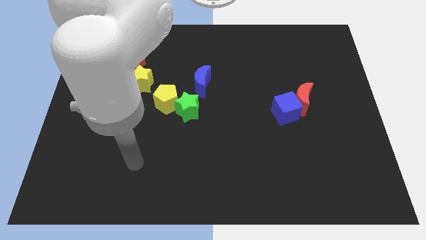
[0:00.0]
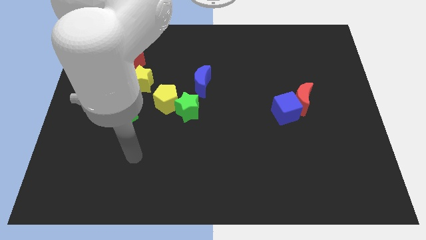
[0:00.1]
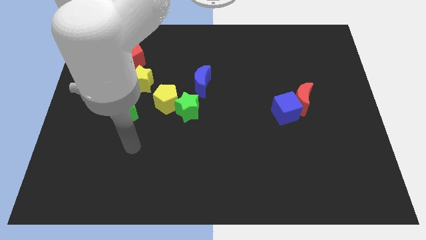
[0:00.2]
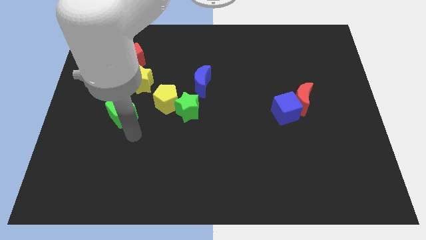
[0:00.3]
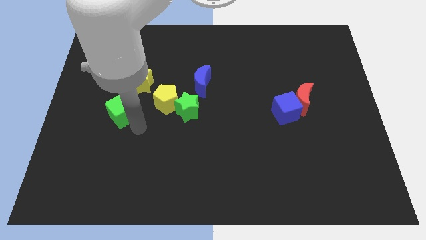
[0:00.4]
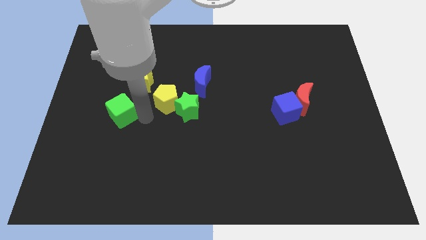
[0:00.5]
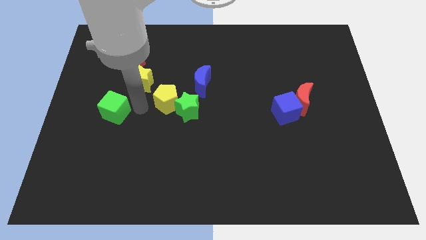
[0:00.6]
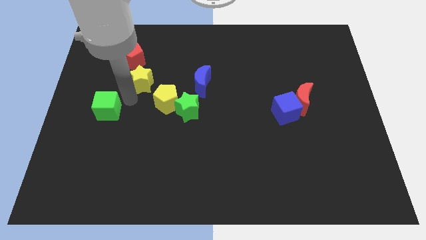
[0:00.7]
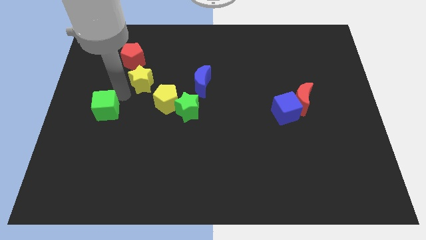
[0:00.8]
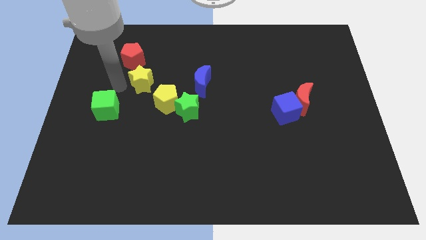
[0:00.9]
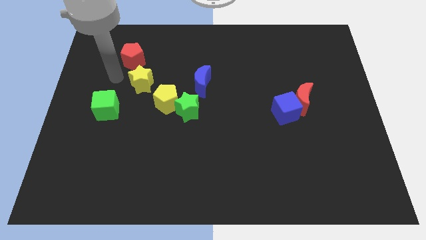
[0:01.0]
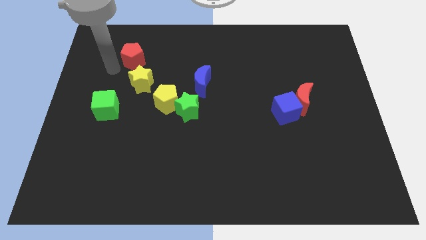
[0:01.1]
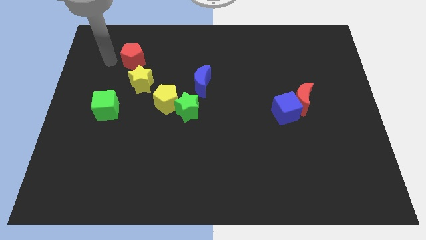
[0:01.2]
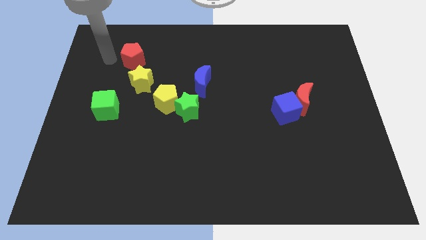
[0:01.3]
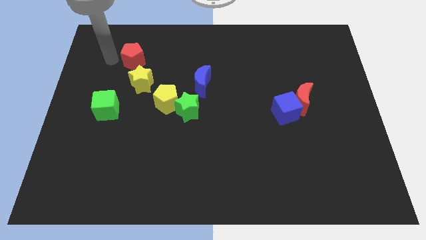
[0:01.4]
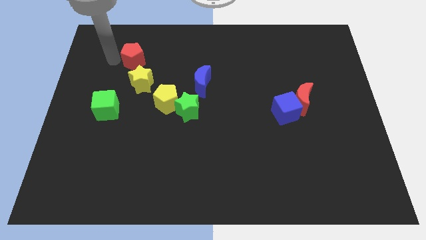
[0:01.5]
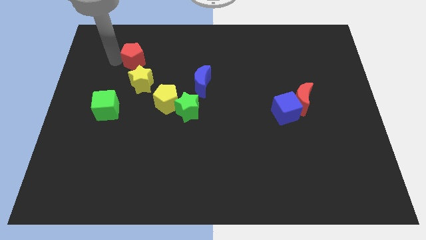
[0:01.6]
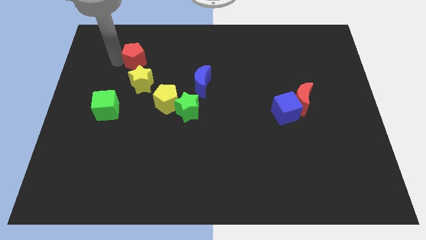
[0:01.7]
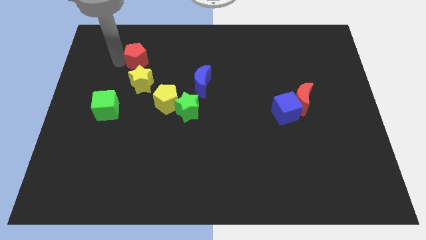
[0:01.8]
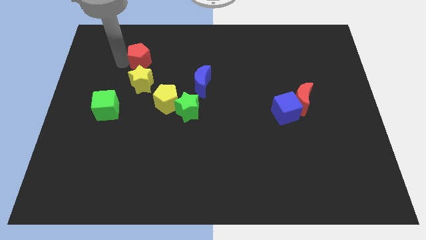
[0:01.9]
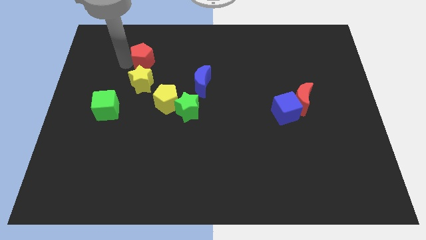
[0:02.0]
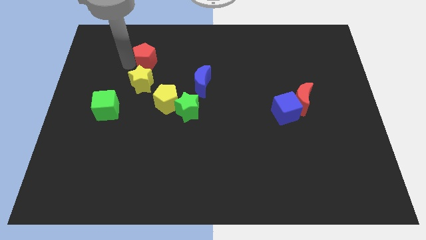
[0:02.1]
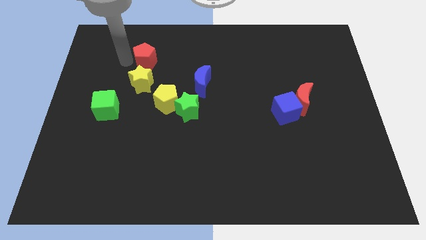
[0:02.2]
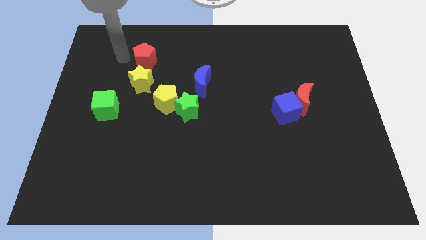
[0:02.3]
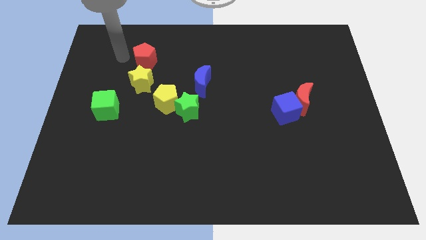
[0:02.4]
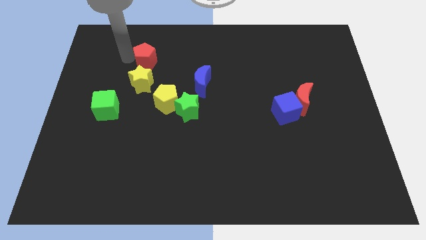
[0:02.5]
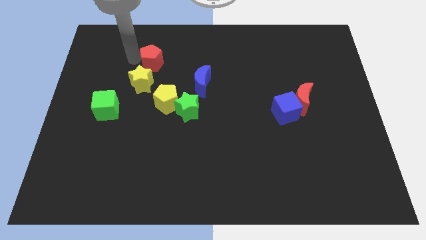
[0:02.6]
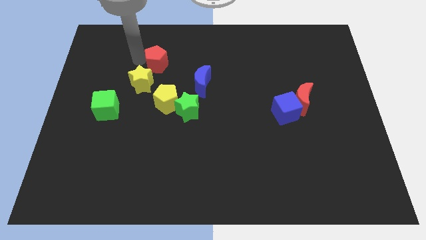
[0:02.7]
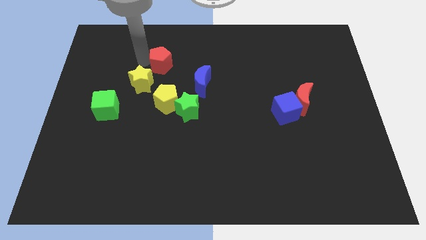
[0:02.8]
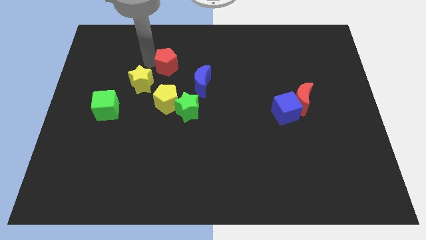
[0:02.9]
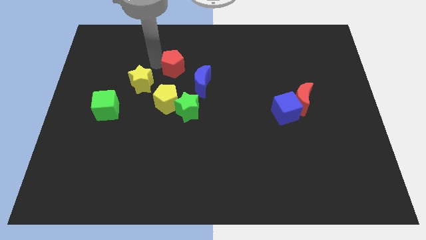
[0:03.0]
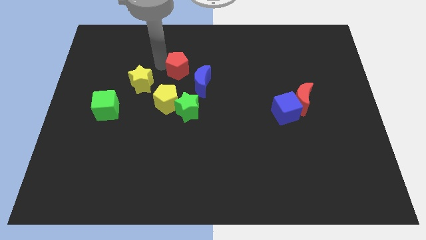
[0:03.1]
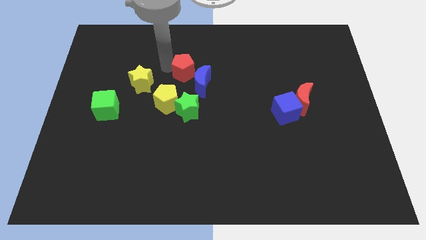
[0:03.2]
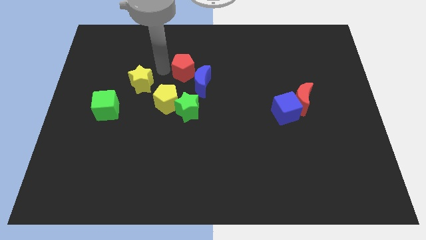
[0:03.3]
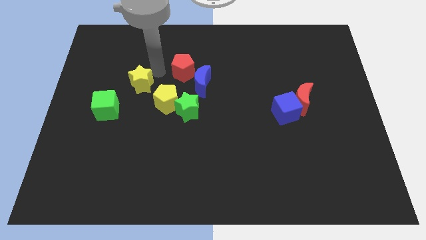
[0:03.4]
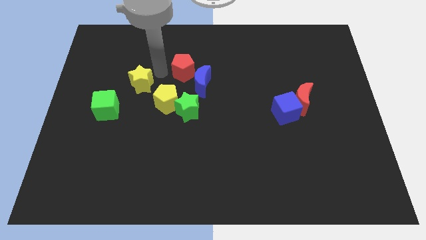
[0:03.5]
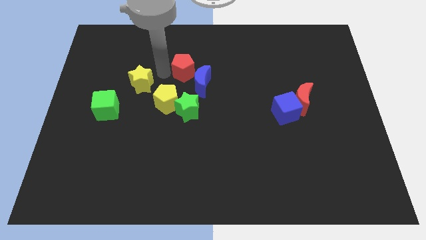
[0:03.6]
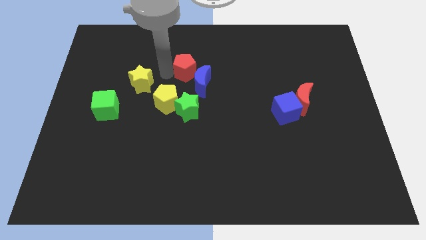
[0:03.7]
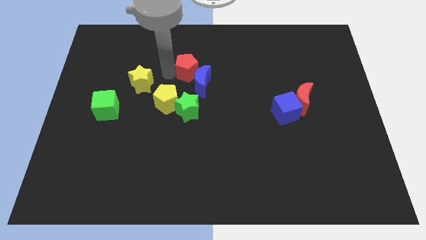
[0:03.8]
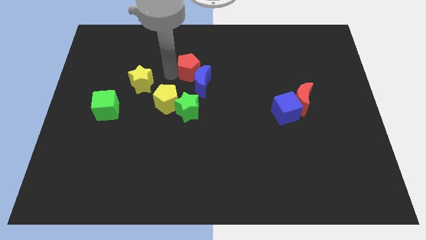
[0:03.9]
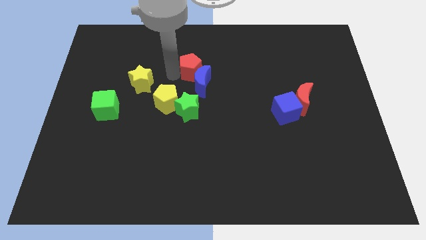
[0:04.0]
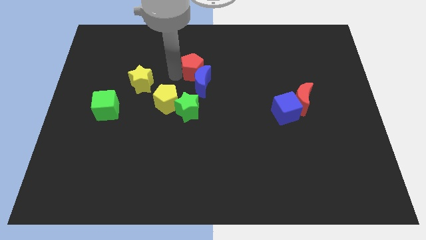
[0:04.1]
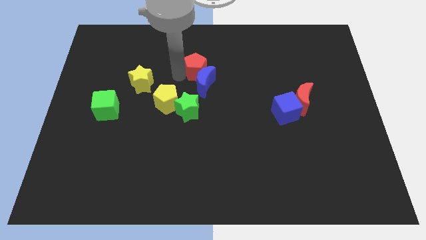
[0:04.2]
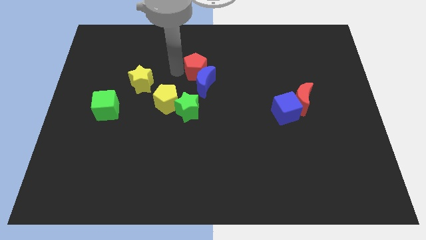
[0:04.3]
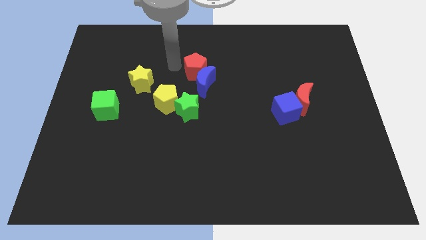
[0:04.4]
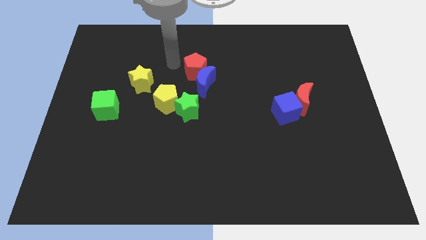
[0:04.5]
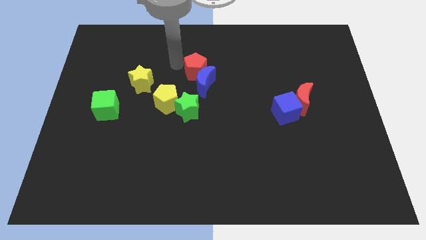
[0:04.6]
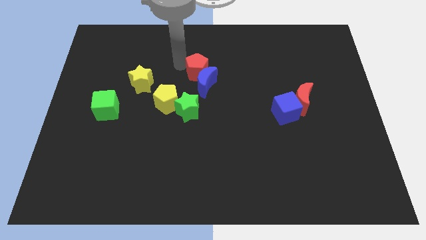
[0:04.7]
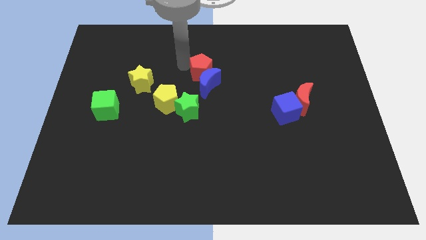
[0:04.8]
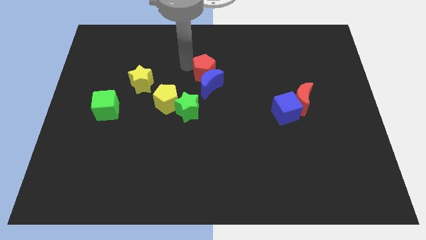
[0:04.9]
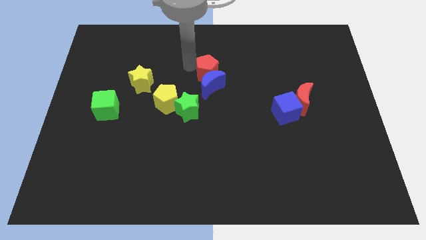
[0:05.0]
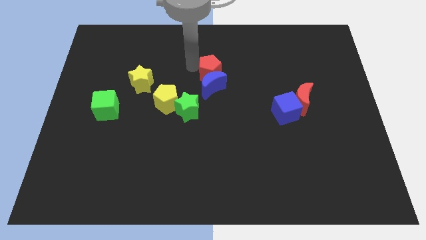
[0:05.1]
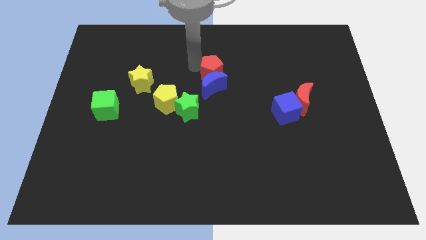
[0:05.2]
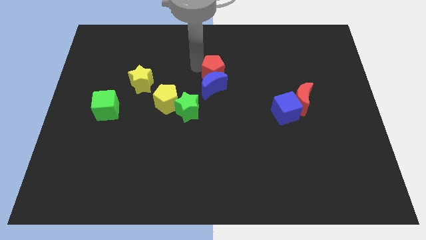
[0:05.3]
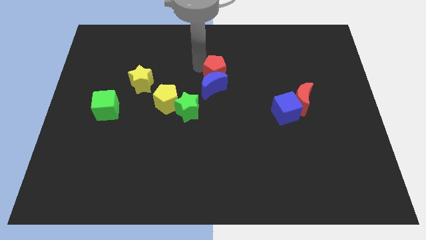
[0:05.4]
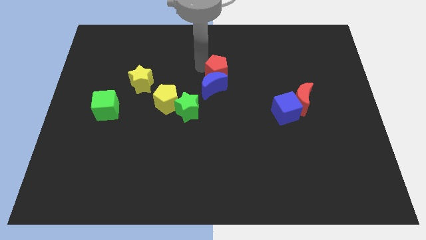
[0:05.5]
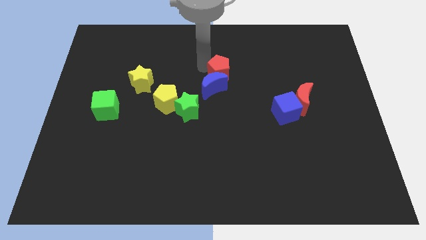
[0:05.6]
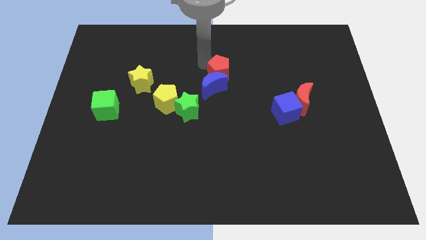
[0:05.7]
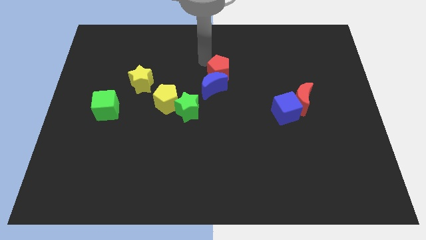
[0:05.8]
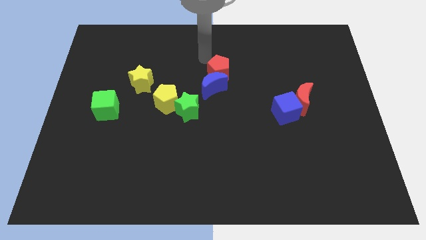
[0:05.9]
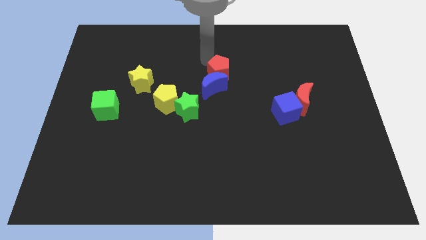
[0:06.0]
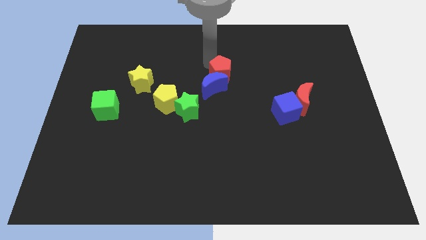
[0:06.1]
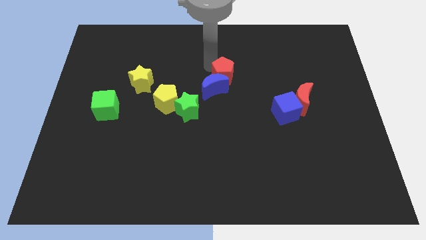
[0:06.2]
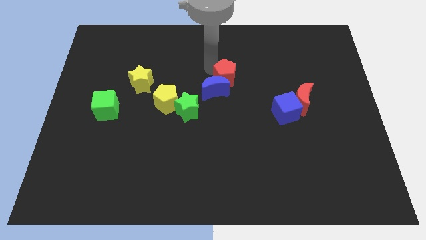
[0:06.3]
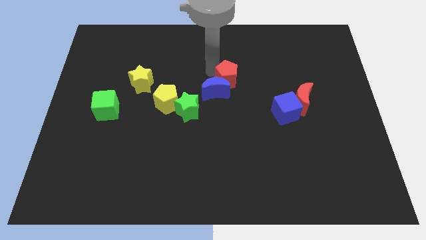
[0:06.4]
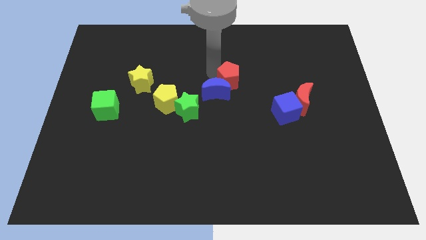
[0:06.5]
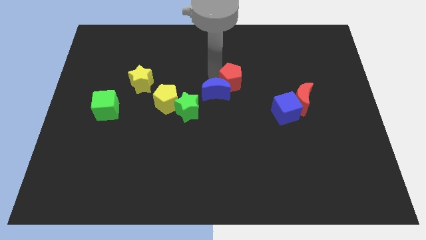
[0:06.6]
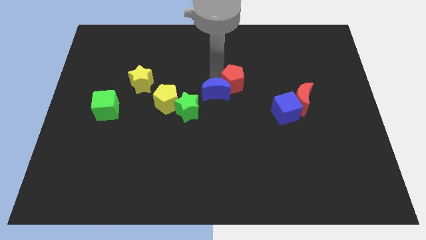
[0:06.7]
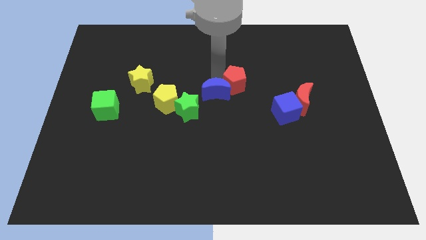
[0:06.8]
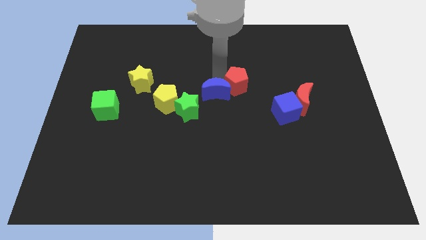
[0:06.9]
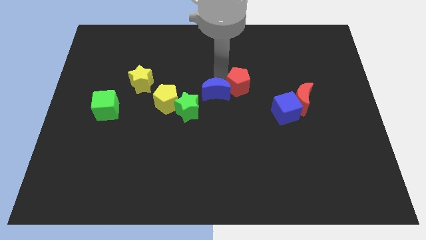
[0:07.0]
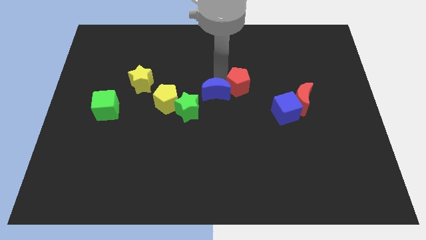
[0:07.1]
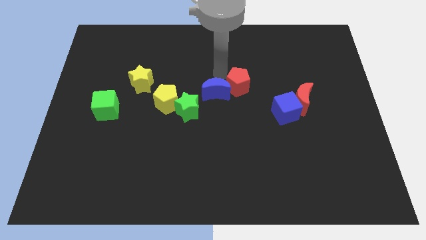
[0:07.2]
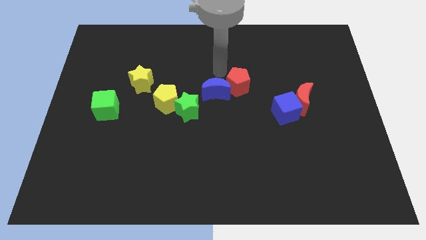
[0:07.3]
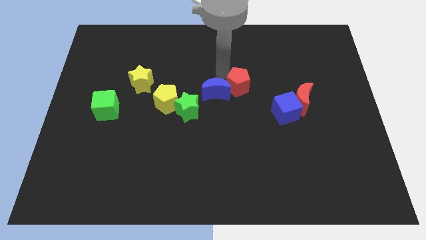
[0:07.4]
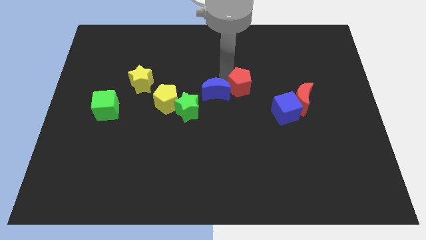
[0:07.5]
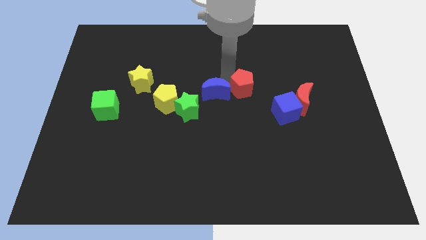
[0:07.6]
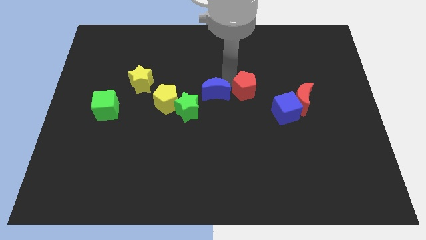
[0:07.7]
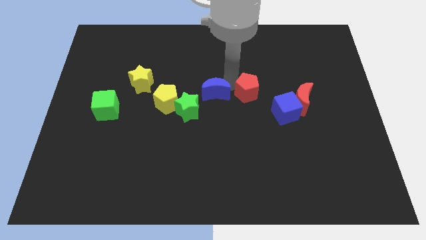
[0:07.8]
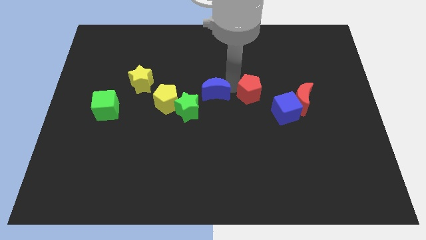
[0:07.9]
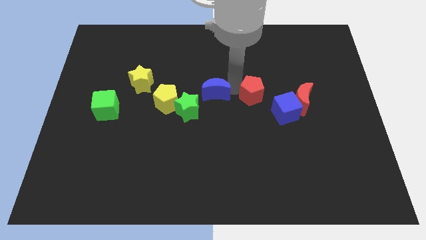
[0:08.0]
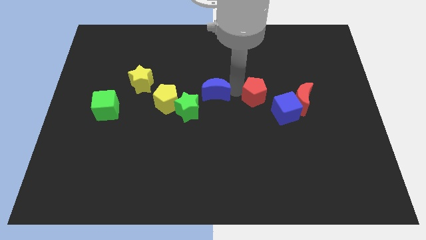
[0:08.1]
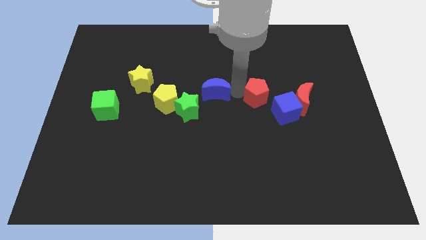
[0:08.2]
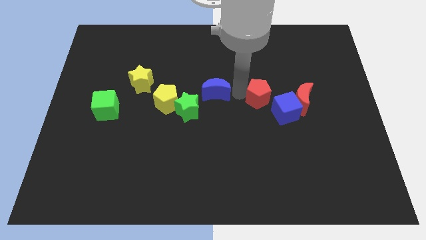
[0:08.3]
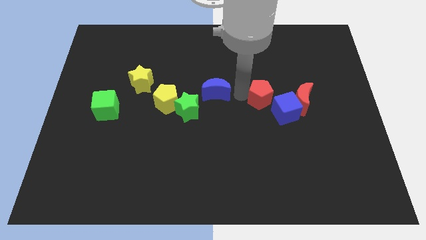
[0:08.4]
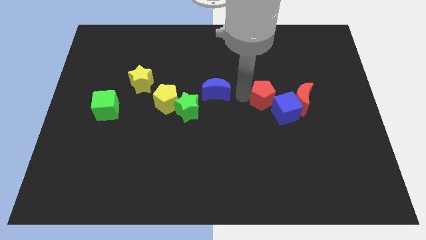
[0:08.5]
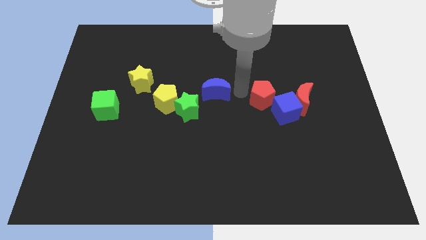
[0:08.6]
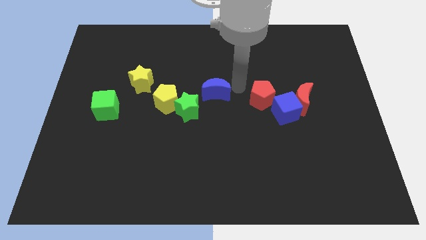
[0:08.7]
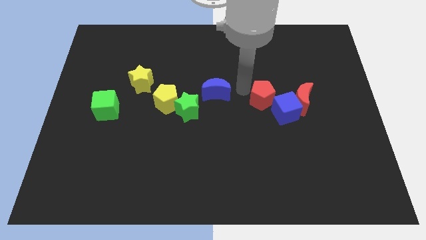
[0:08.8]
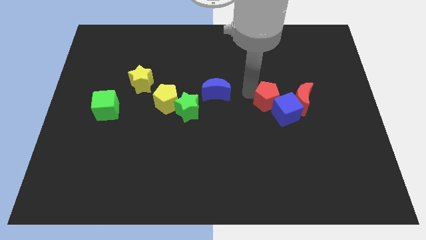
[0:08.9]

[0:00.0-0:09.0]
move the red pentagon next to the blue cube
